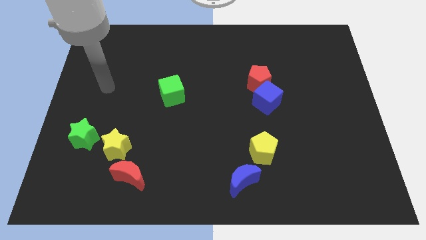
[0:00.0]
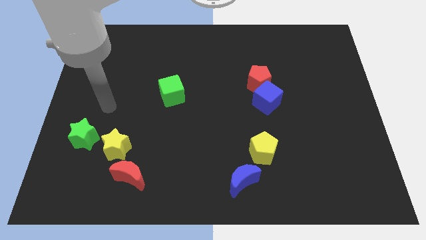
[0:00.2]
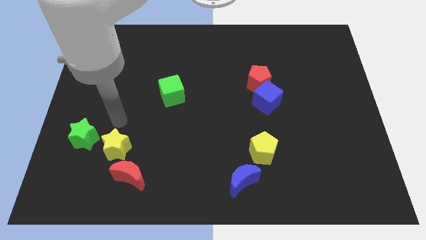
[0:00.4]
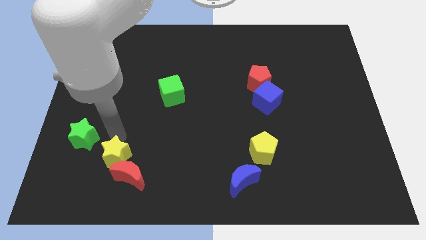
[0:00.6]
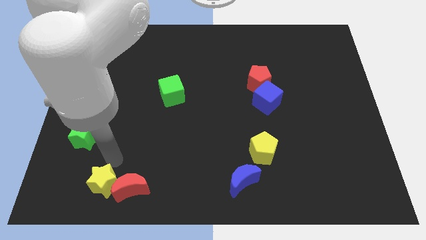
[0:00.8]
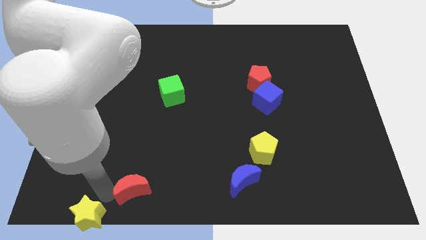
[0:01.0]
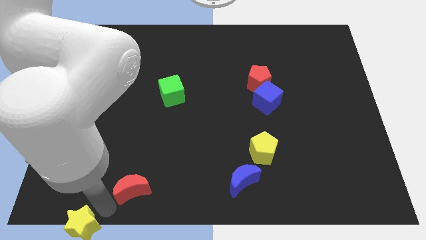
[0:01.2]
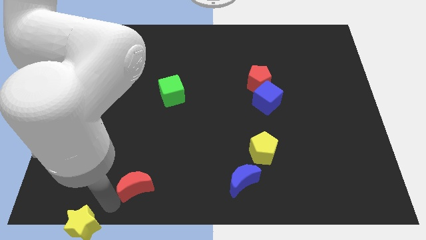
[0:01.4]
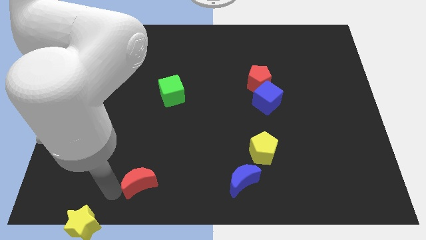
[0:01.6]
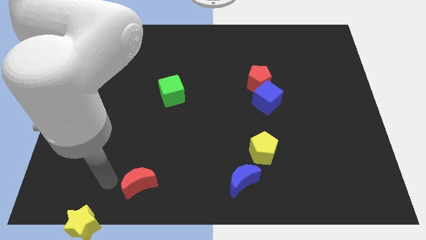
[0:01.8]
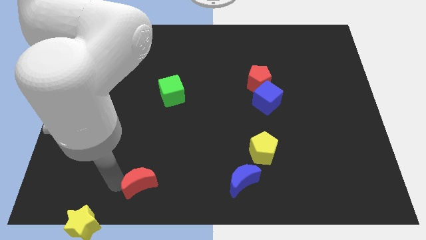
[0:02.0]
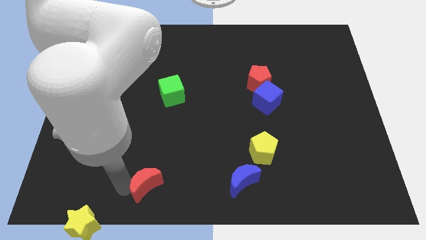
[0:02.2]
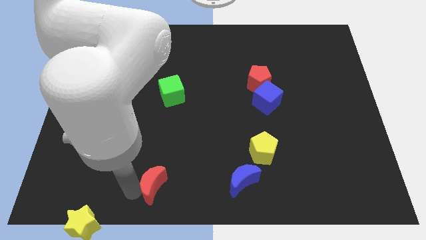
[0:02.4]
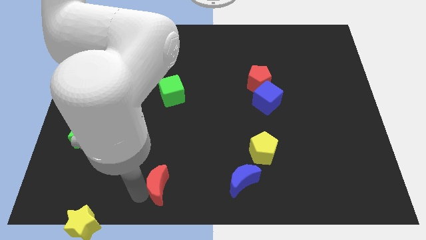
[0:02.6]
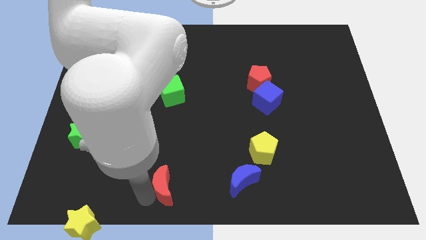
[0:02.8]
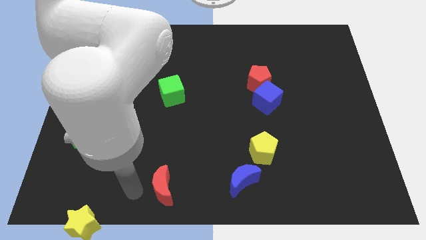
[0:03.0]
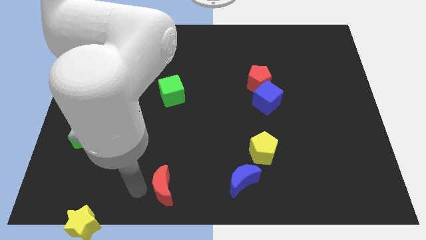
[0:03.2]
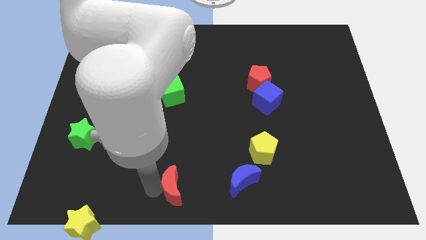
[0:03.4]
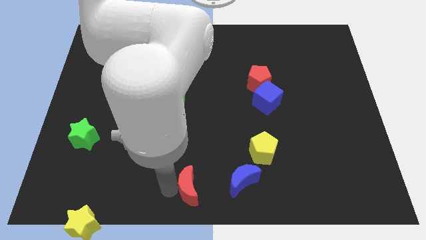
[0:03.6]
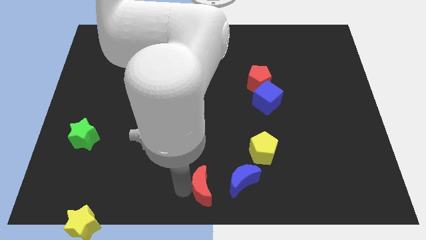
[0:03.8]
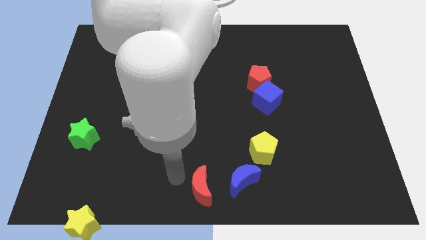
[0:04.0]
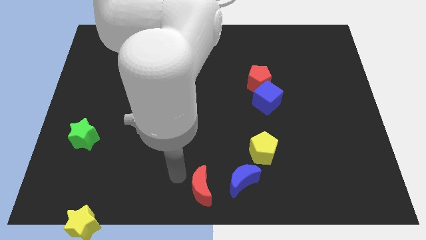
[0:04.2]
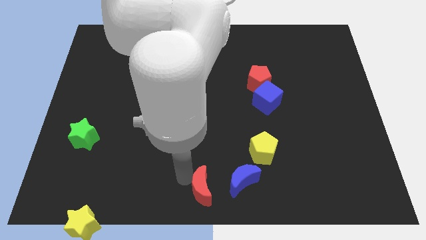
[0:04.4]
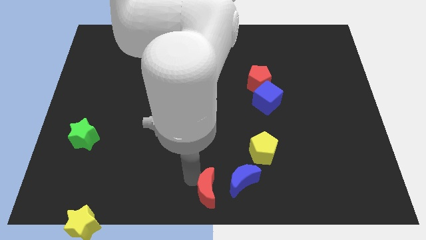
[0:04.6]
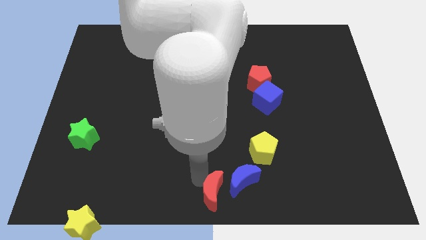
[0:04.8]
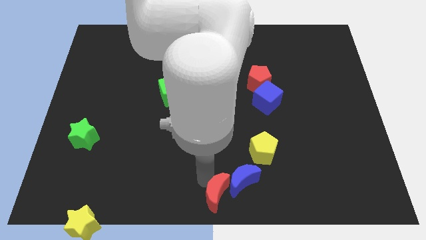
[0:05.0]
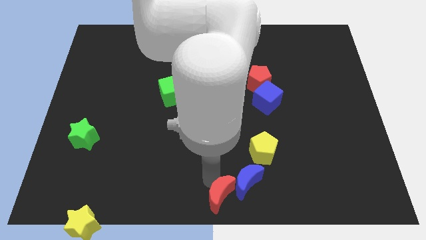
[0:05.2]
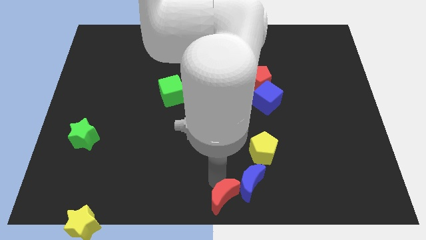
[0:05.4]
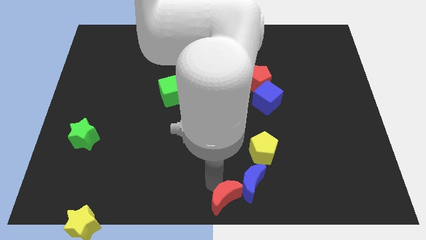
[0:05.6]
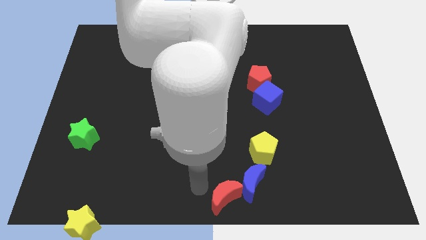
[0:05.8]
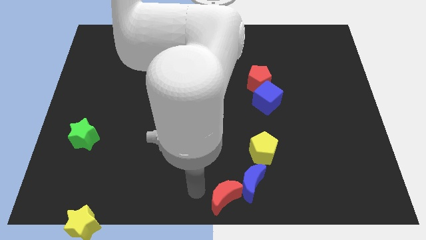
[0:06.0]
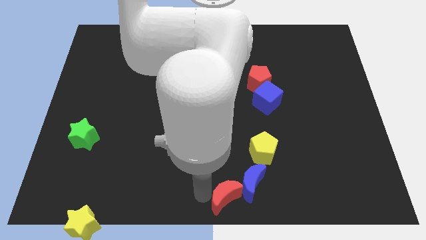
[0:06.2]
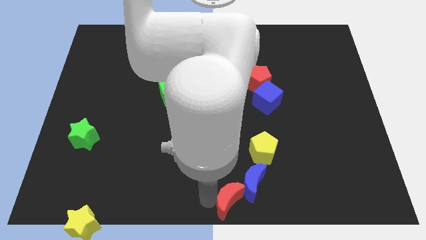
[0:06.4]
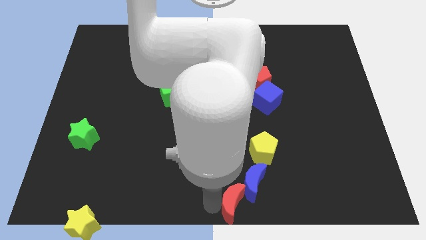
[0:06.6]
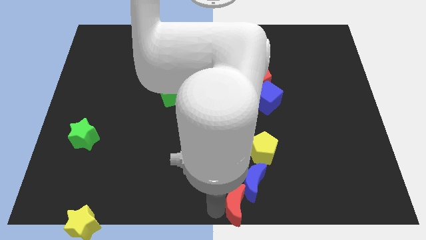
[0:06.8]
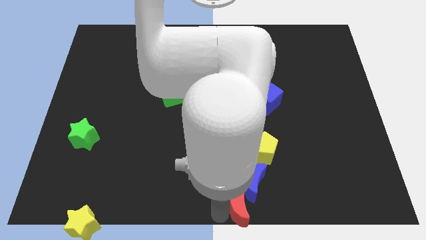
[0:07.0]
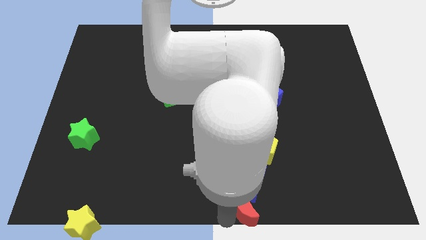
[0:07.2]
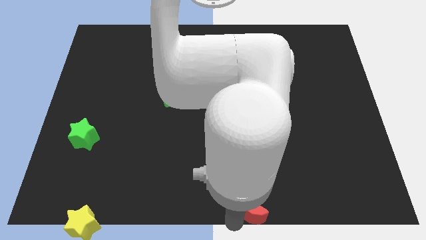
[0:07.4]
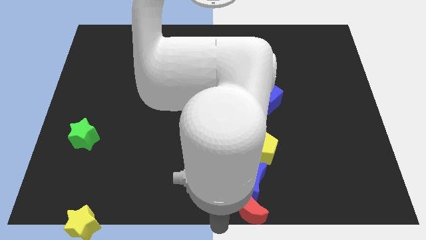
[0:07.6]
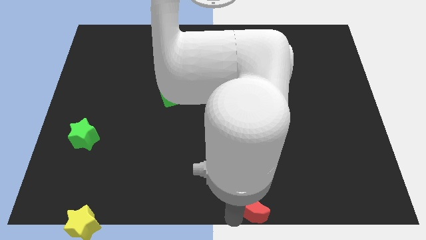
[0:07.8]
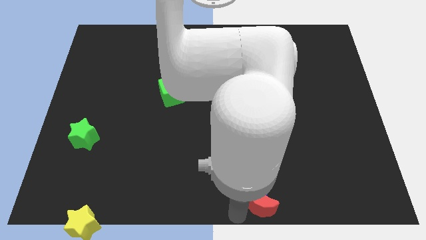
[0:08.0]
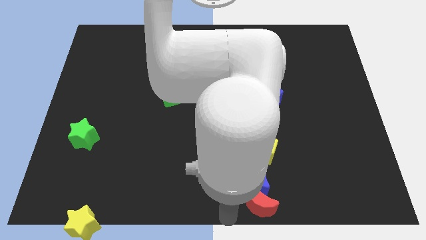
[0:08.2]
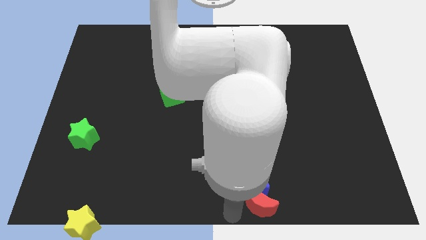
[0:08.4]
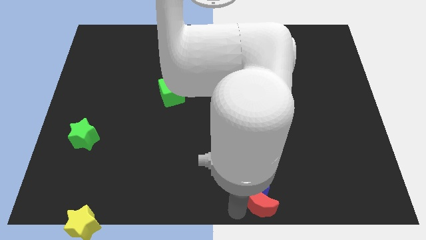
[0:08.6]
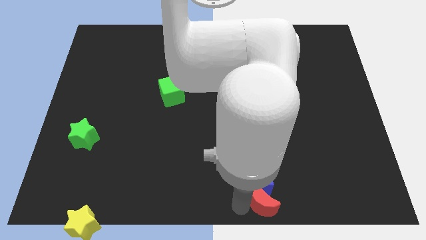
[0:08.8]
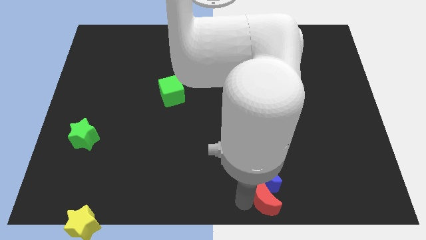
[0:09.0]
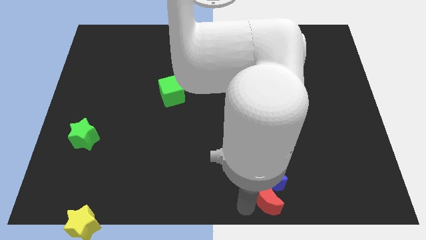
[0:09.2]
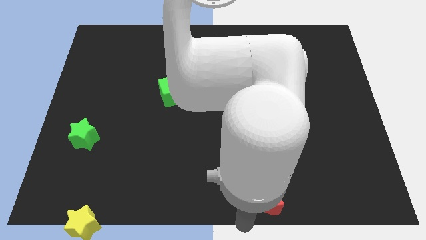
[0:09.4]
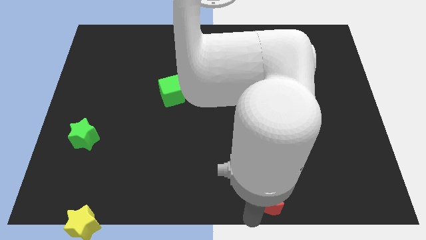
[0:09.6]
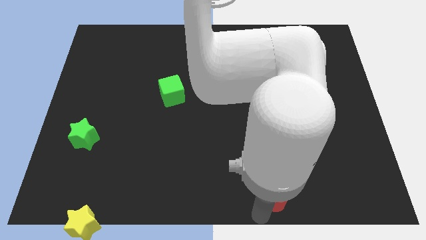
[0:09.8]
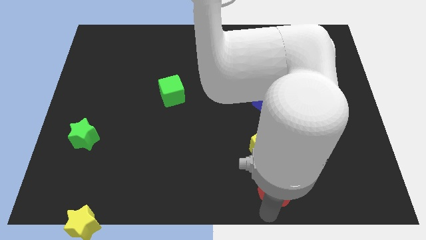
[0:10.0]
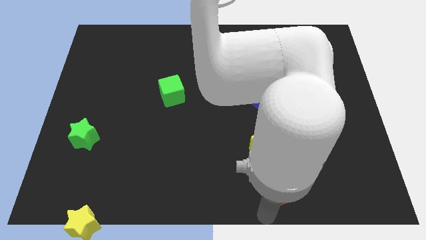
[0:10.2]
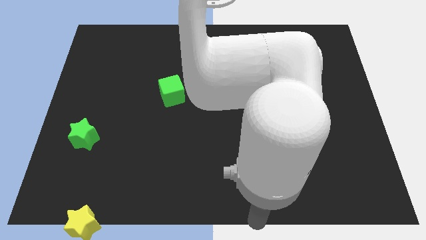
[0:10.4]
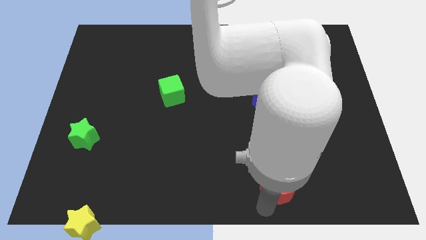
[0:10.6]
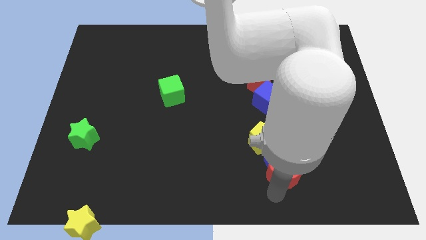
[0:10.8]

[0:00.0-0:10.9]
put the red moon to the bottom right of the yellow pentagon

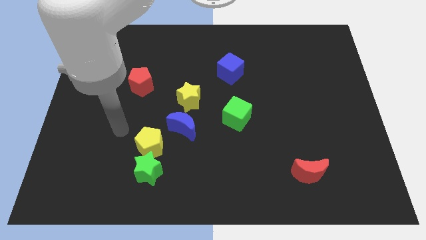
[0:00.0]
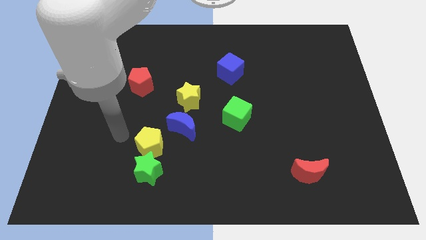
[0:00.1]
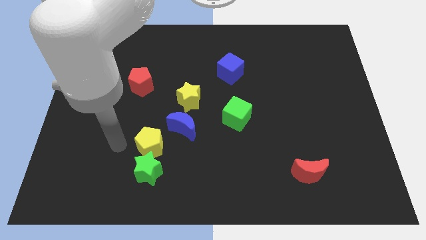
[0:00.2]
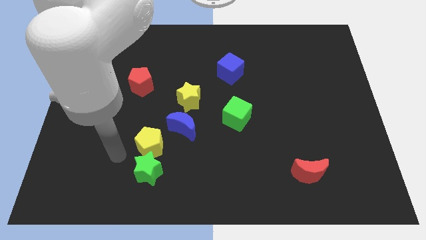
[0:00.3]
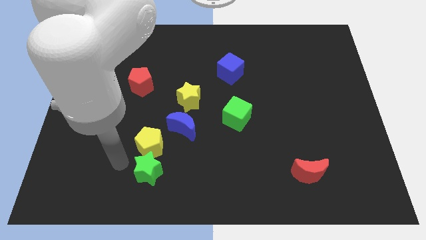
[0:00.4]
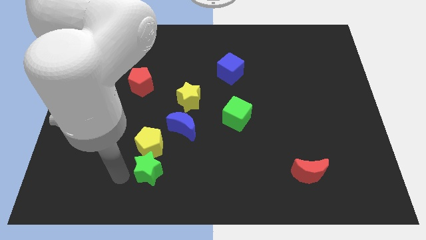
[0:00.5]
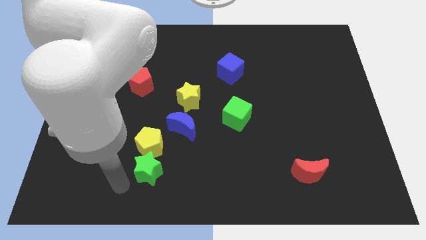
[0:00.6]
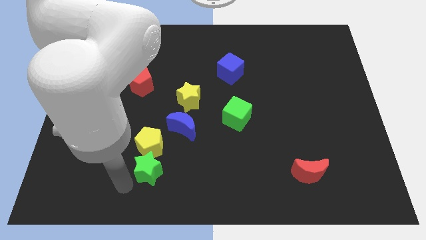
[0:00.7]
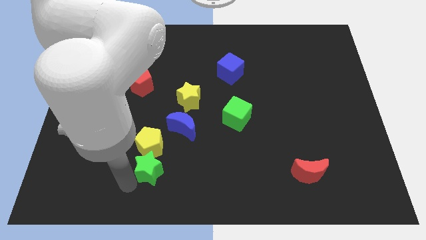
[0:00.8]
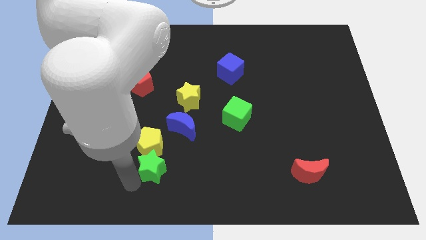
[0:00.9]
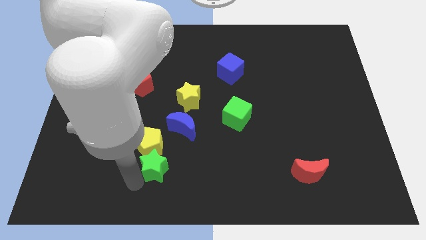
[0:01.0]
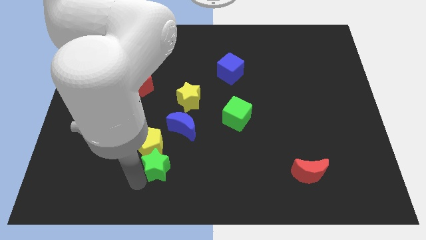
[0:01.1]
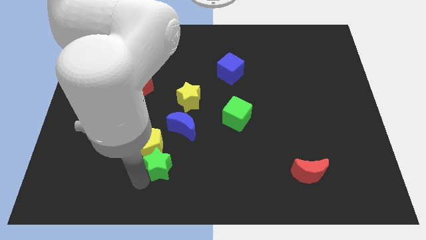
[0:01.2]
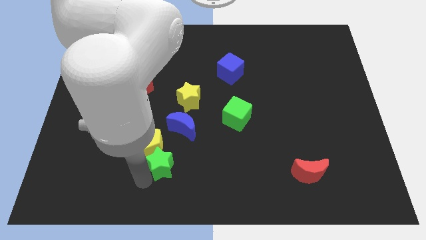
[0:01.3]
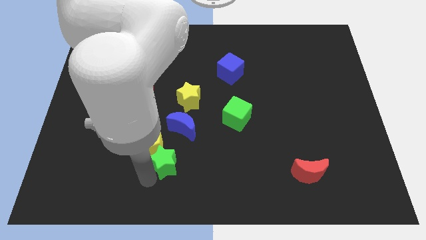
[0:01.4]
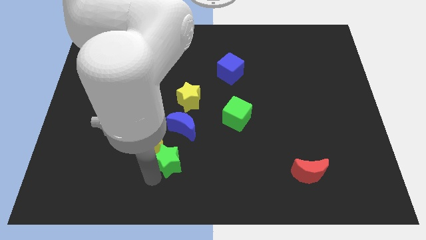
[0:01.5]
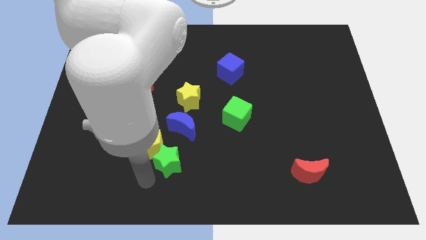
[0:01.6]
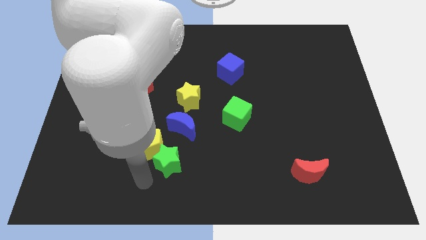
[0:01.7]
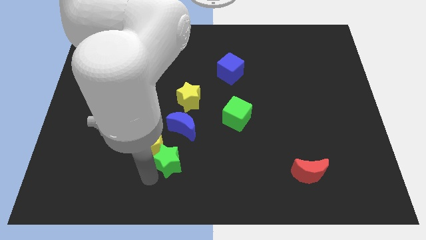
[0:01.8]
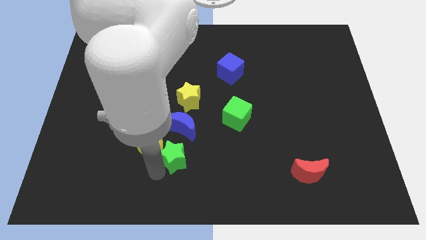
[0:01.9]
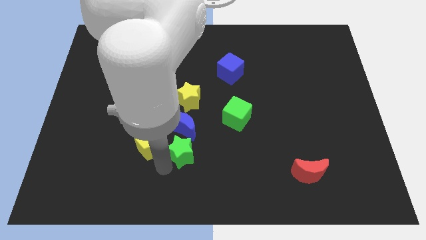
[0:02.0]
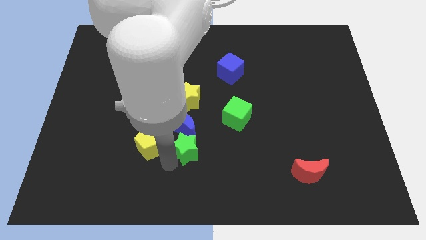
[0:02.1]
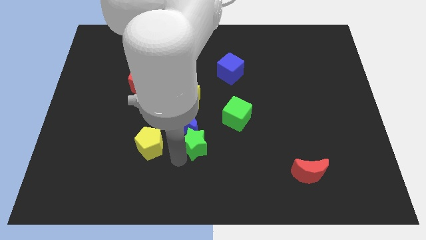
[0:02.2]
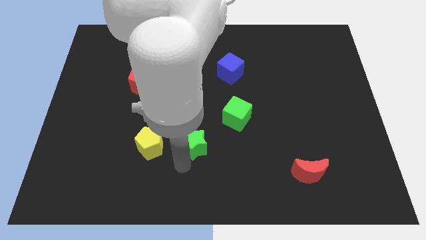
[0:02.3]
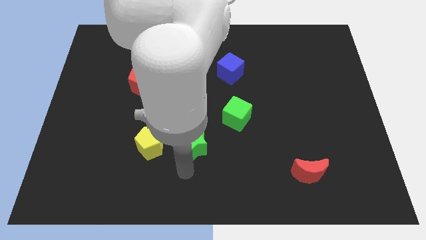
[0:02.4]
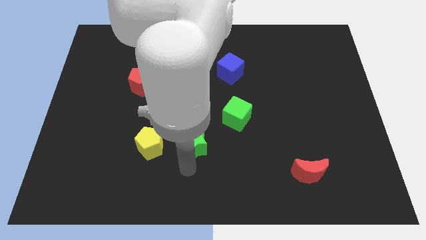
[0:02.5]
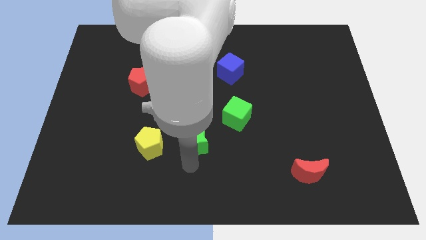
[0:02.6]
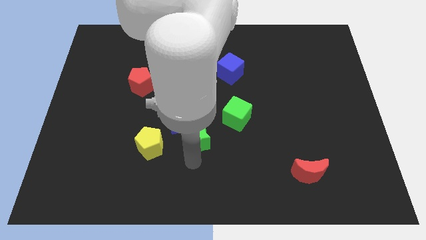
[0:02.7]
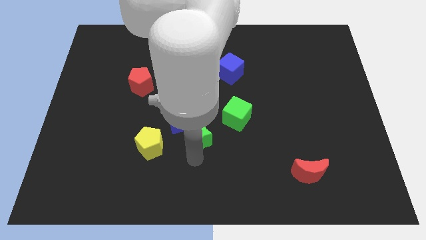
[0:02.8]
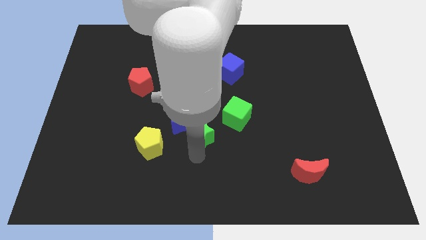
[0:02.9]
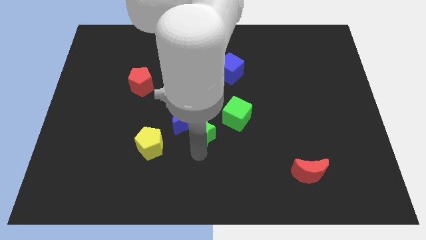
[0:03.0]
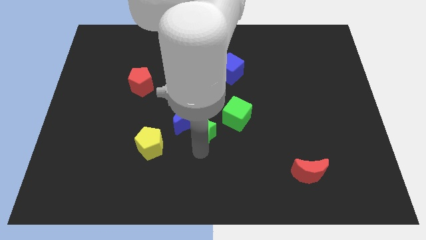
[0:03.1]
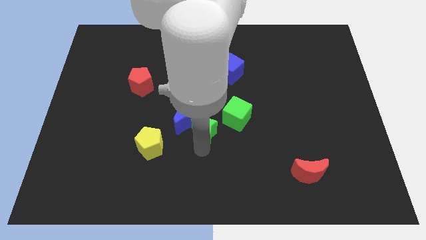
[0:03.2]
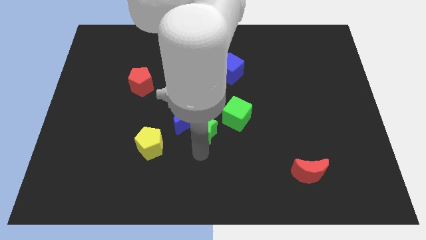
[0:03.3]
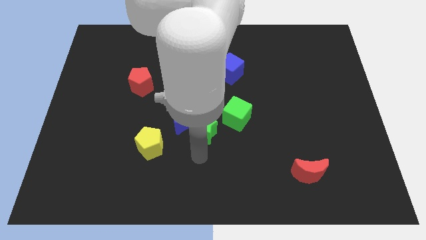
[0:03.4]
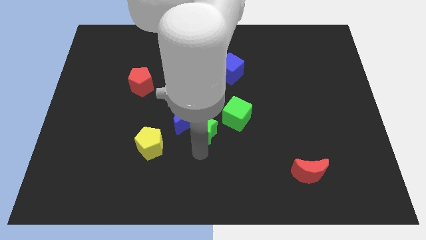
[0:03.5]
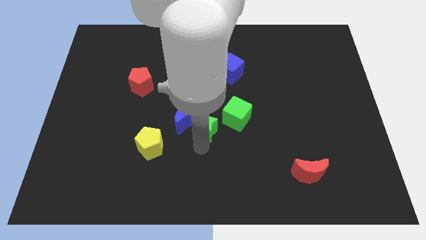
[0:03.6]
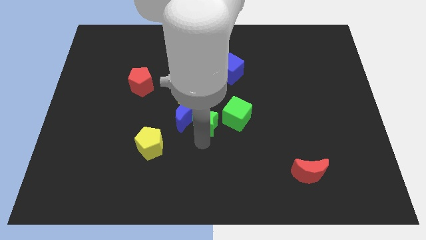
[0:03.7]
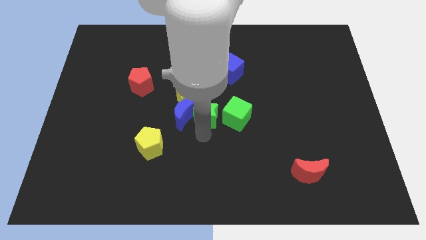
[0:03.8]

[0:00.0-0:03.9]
push the green star to the top left side of the green cube
